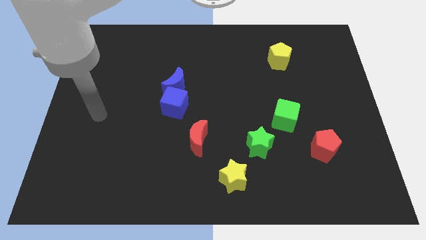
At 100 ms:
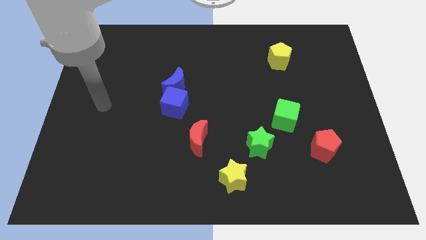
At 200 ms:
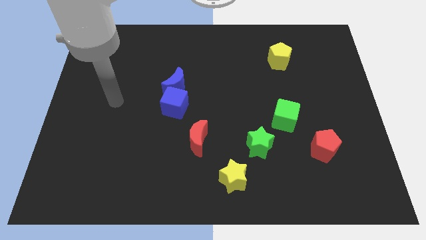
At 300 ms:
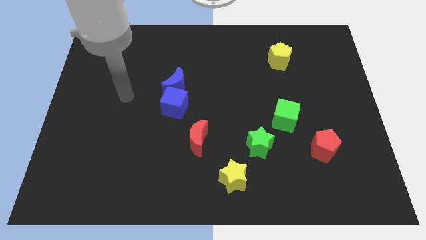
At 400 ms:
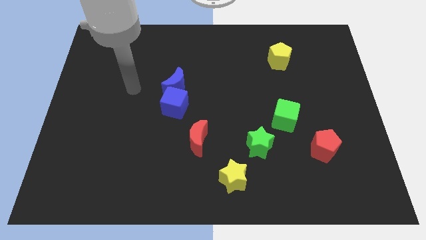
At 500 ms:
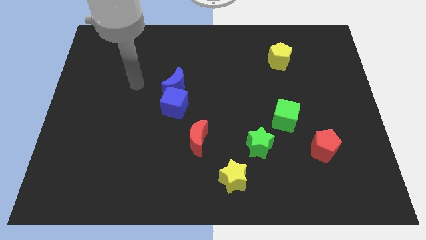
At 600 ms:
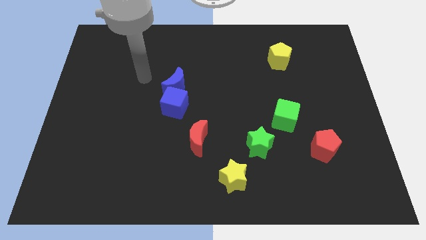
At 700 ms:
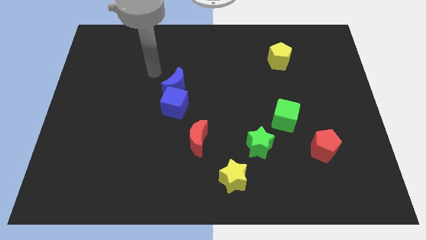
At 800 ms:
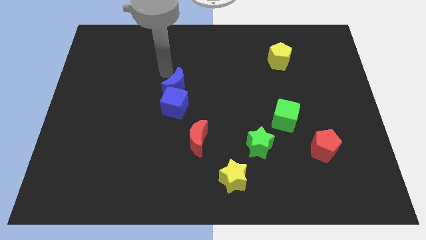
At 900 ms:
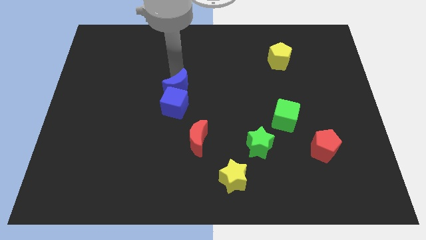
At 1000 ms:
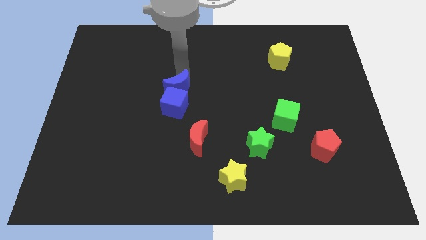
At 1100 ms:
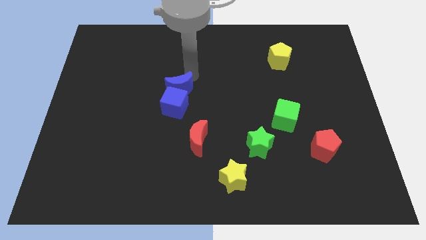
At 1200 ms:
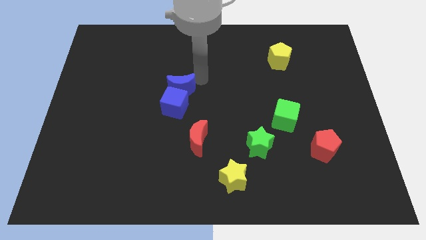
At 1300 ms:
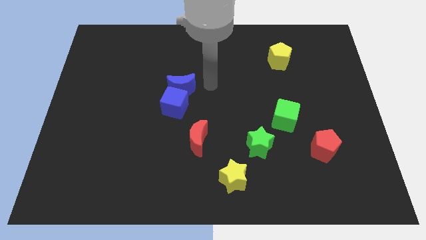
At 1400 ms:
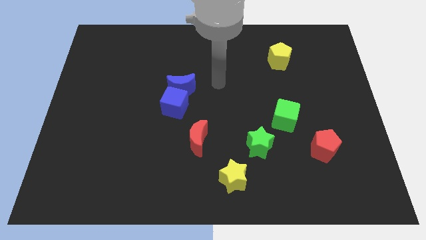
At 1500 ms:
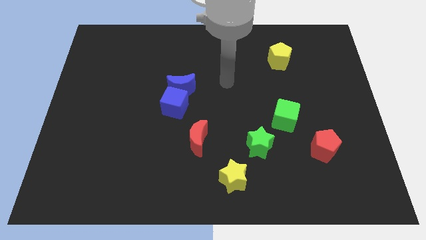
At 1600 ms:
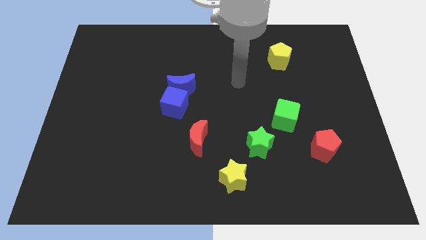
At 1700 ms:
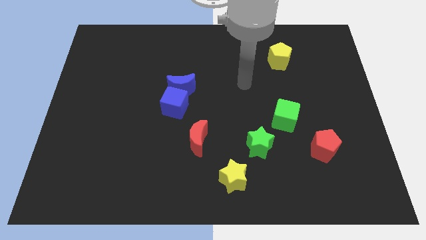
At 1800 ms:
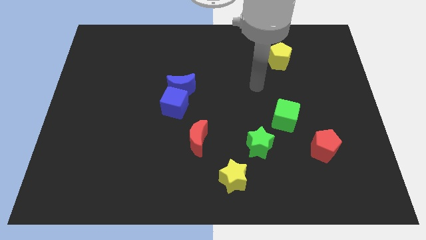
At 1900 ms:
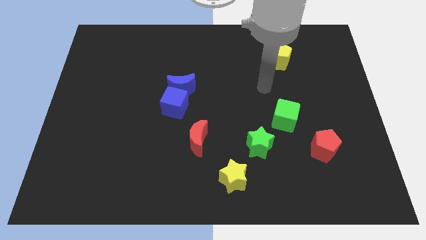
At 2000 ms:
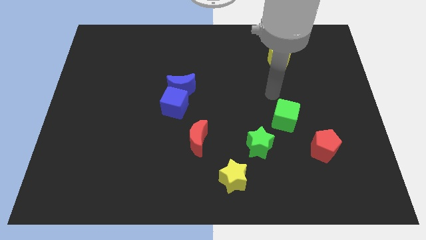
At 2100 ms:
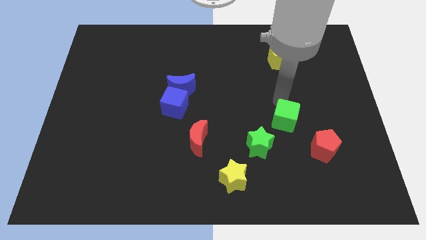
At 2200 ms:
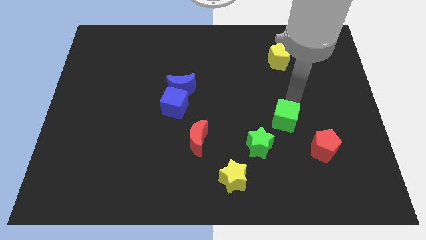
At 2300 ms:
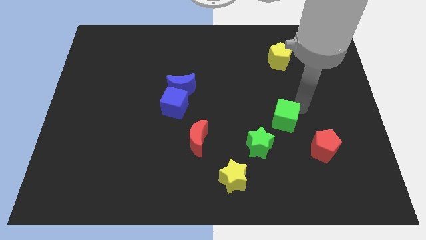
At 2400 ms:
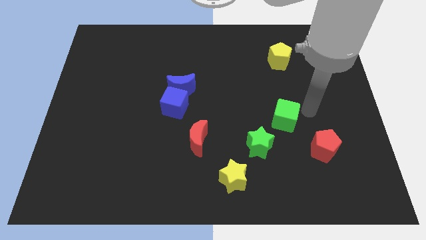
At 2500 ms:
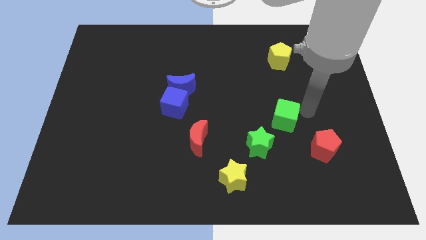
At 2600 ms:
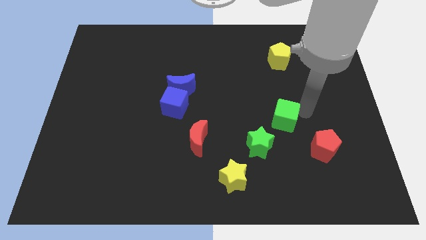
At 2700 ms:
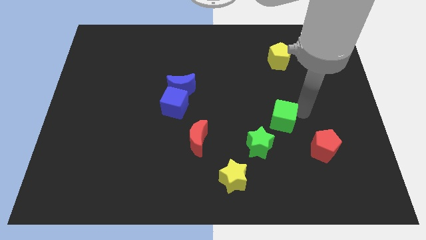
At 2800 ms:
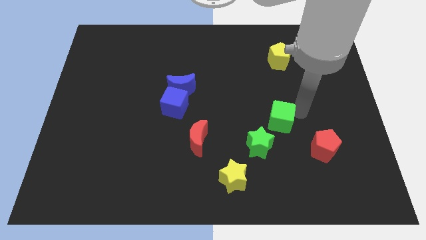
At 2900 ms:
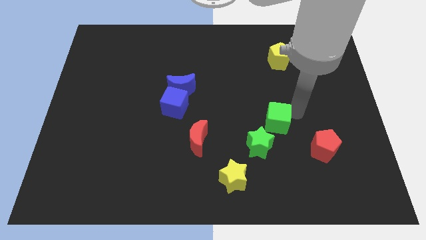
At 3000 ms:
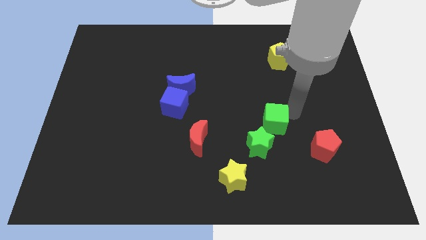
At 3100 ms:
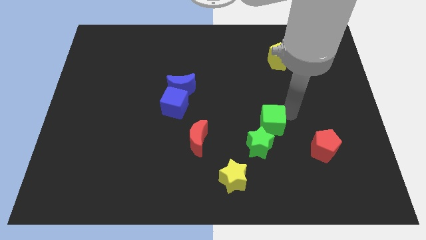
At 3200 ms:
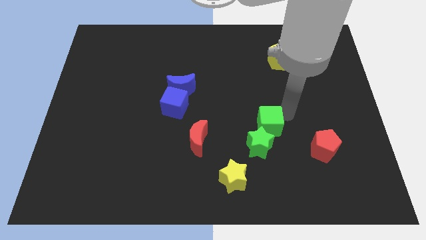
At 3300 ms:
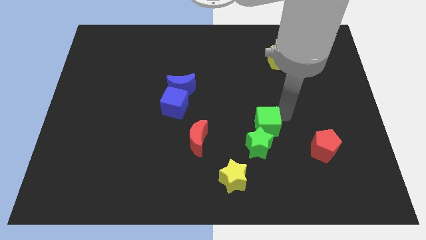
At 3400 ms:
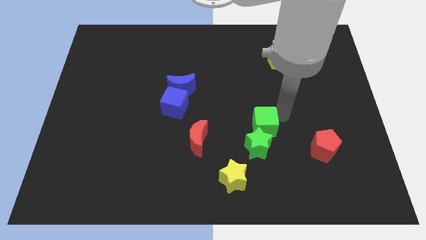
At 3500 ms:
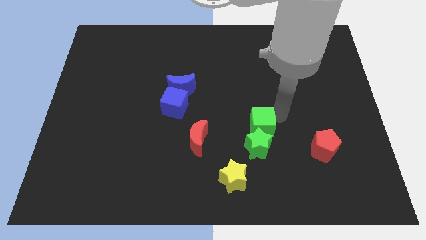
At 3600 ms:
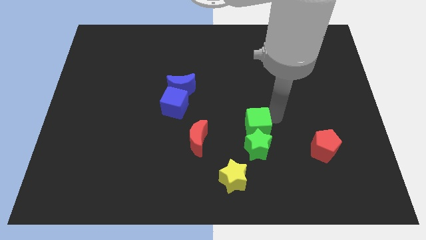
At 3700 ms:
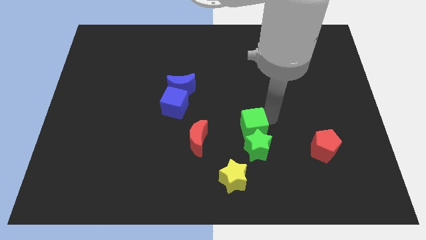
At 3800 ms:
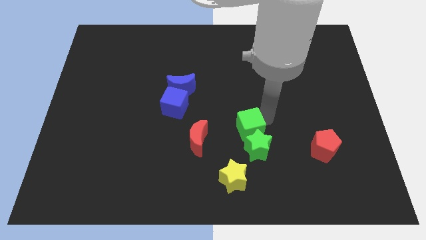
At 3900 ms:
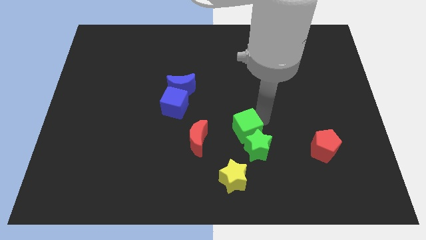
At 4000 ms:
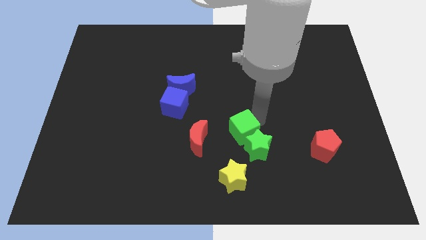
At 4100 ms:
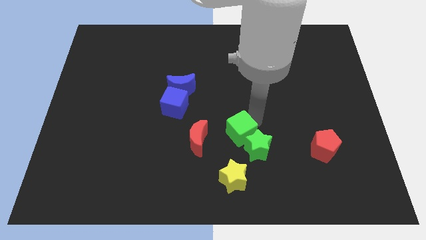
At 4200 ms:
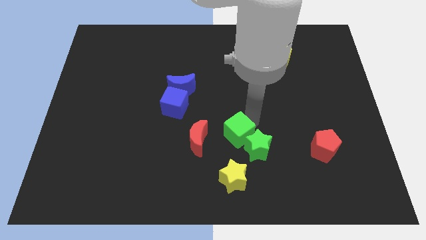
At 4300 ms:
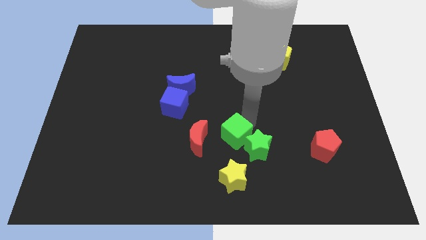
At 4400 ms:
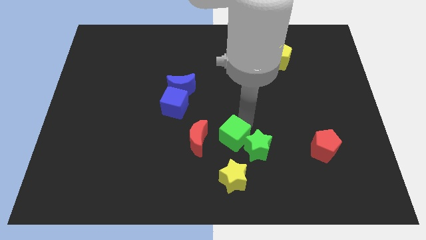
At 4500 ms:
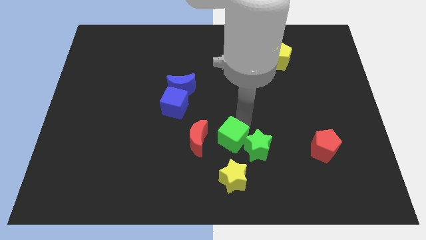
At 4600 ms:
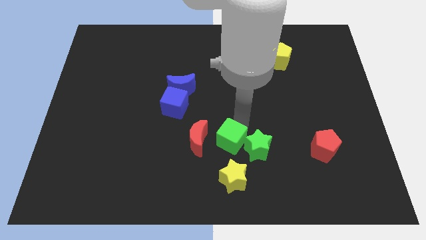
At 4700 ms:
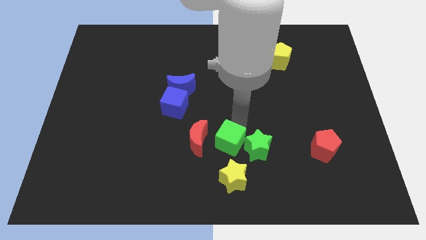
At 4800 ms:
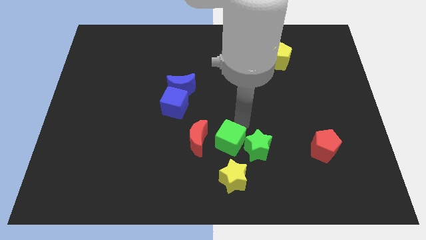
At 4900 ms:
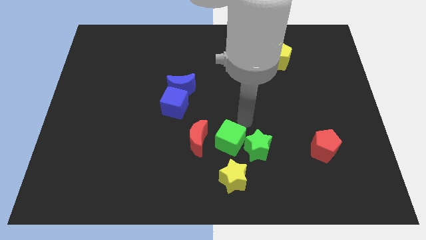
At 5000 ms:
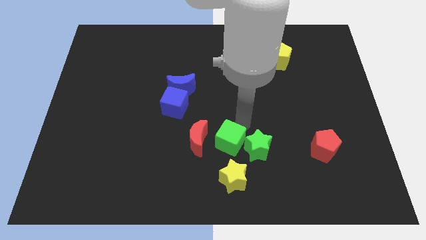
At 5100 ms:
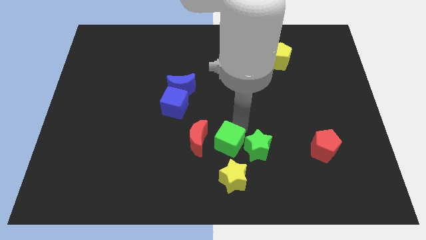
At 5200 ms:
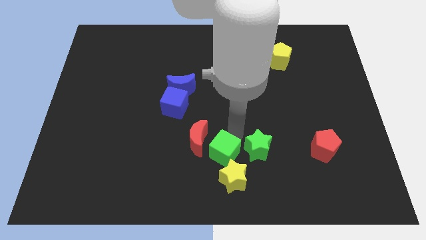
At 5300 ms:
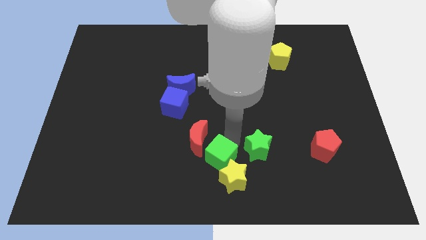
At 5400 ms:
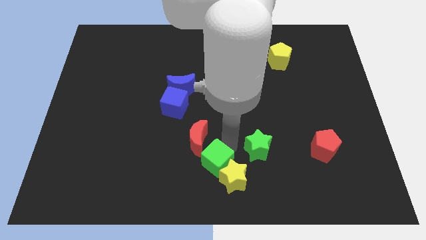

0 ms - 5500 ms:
slide the green cube to the left side of the yellow star

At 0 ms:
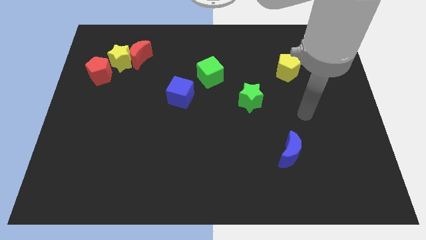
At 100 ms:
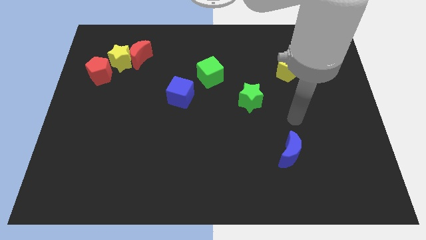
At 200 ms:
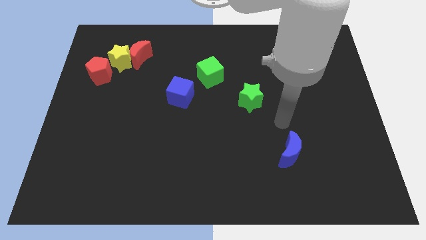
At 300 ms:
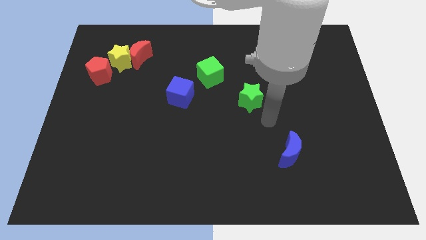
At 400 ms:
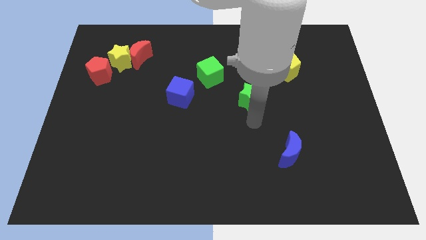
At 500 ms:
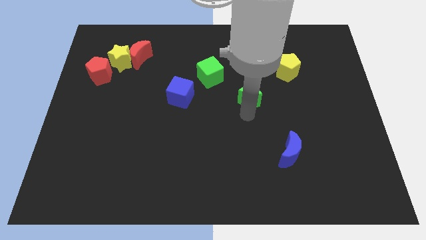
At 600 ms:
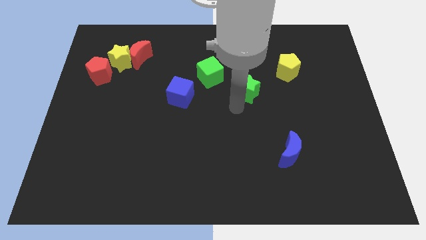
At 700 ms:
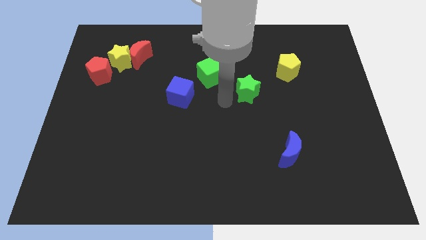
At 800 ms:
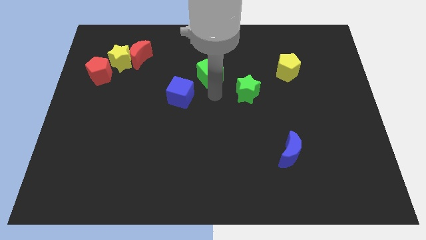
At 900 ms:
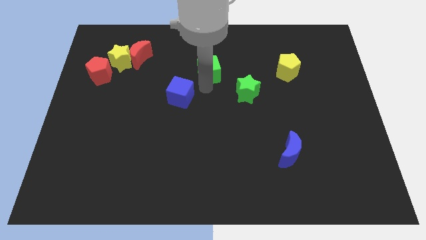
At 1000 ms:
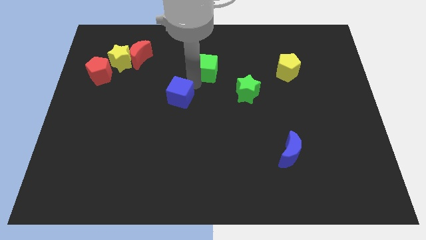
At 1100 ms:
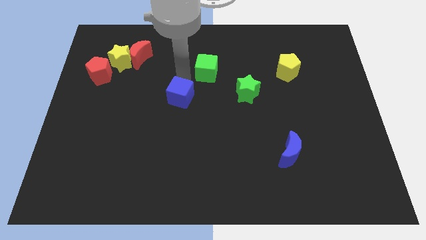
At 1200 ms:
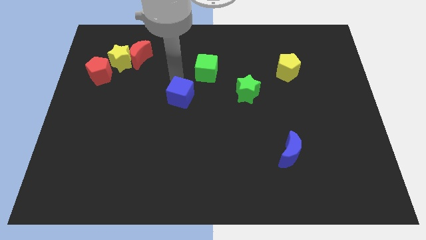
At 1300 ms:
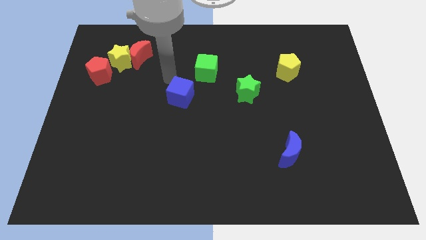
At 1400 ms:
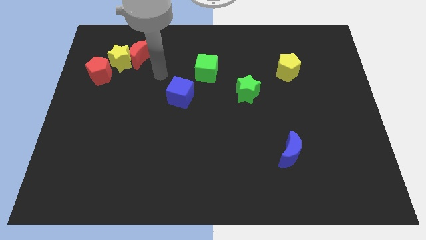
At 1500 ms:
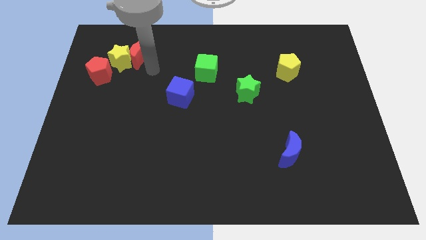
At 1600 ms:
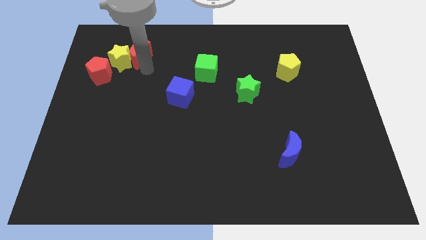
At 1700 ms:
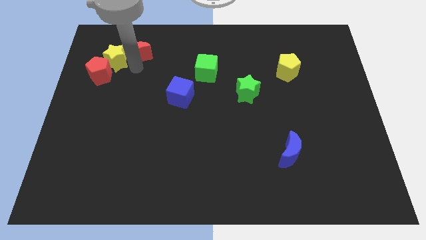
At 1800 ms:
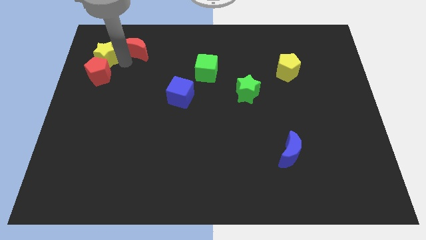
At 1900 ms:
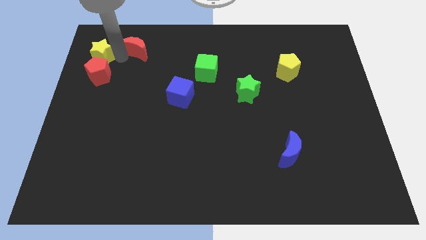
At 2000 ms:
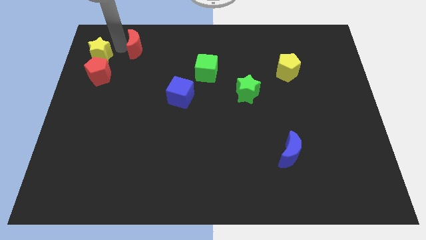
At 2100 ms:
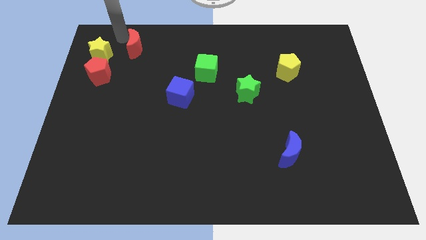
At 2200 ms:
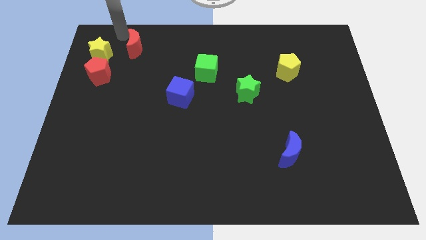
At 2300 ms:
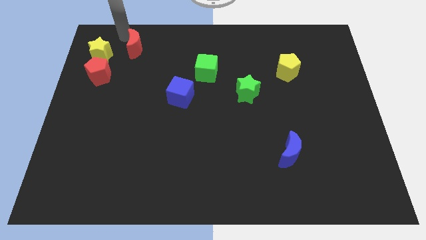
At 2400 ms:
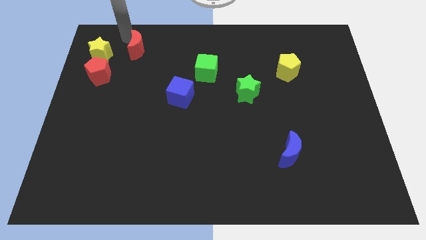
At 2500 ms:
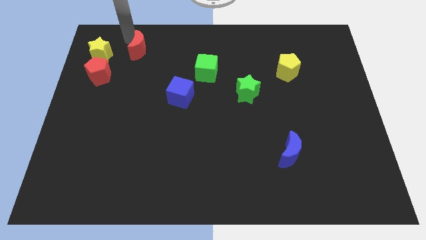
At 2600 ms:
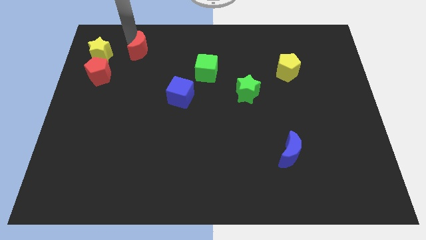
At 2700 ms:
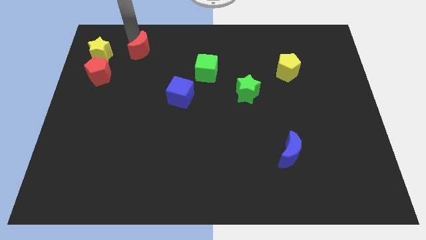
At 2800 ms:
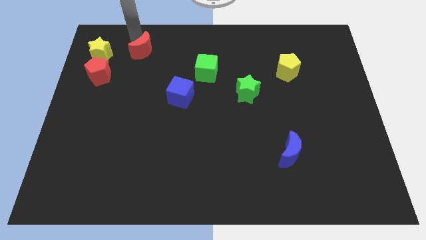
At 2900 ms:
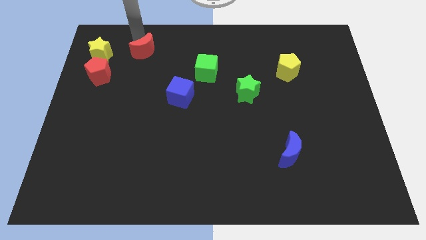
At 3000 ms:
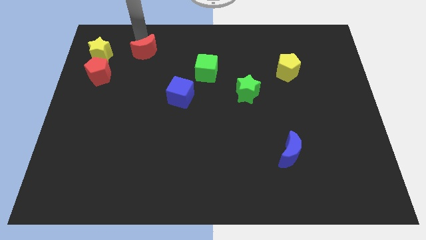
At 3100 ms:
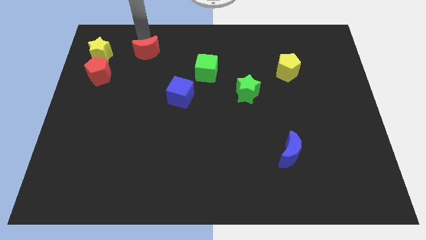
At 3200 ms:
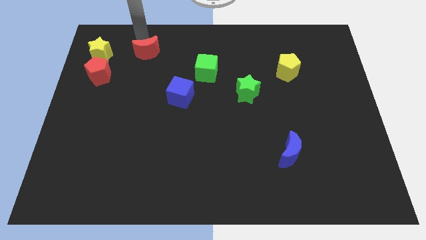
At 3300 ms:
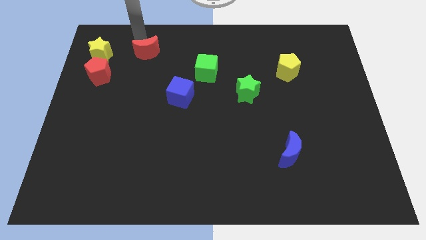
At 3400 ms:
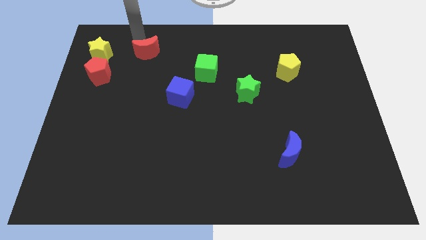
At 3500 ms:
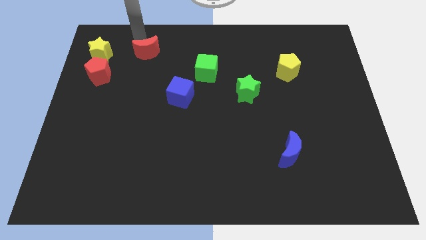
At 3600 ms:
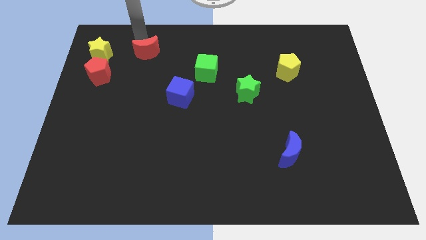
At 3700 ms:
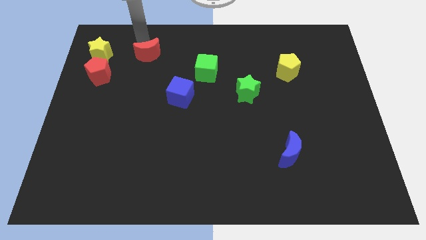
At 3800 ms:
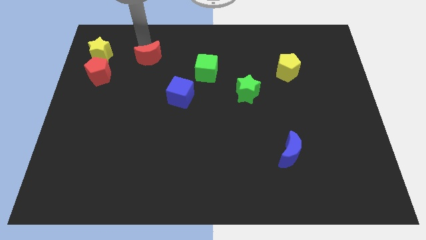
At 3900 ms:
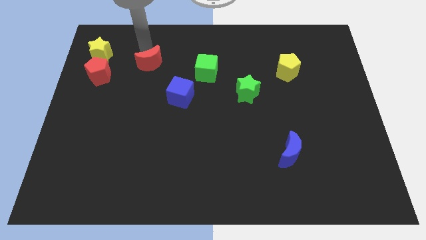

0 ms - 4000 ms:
slide the red moon just left of the green cube
